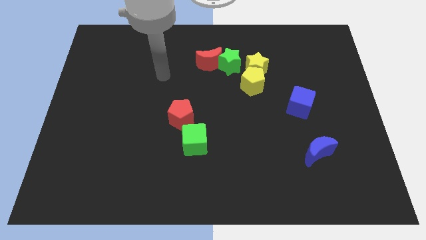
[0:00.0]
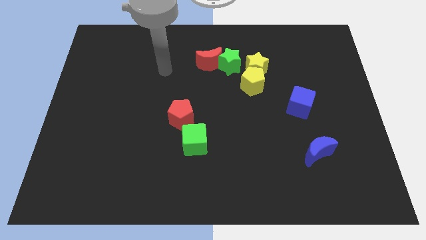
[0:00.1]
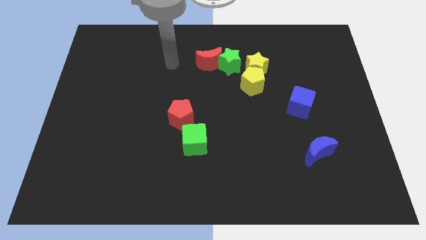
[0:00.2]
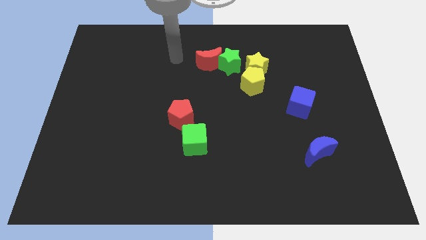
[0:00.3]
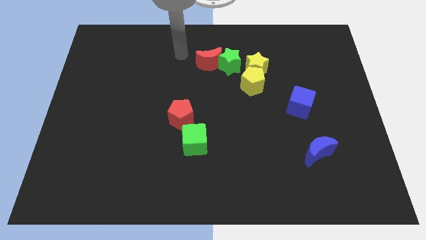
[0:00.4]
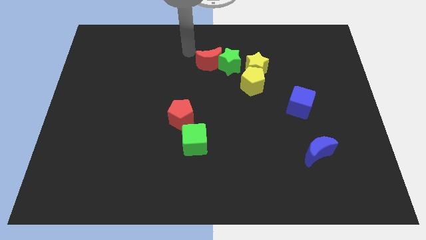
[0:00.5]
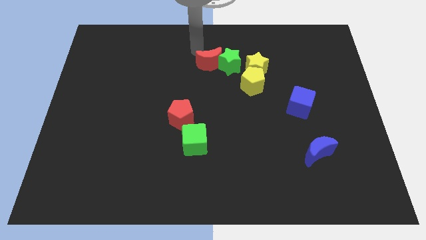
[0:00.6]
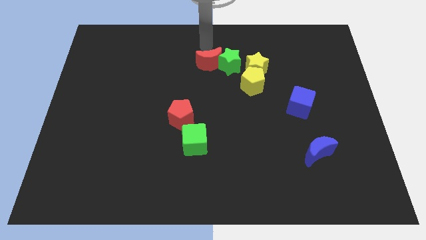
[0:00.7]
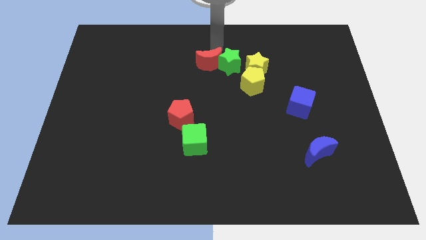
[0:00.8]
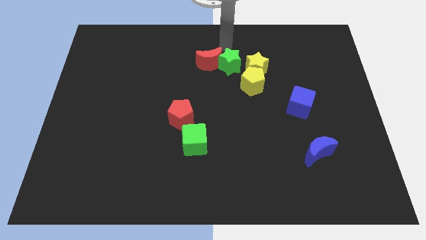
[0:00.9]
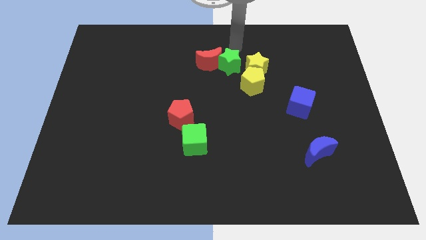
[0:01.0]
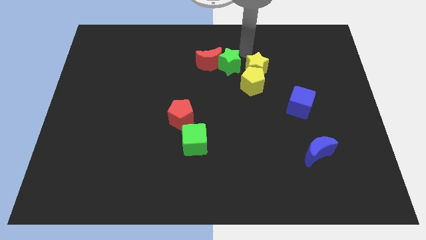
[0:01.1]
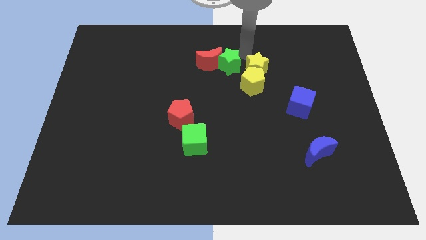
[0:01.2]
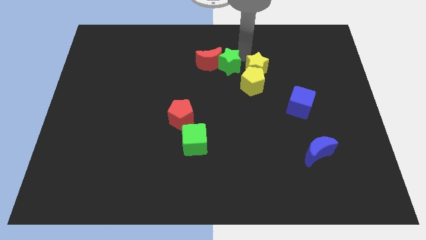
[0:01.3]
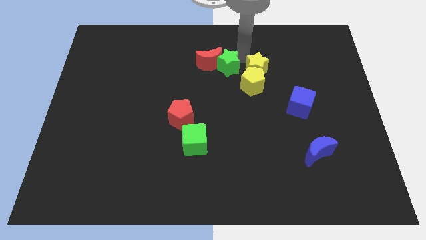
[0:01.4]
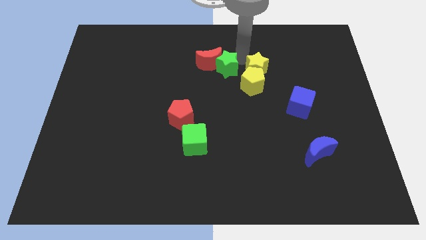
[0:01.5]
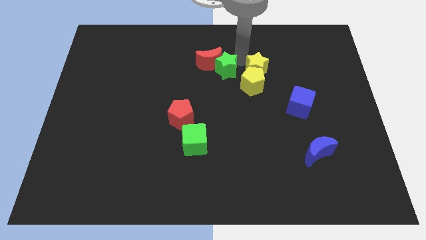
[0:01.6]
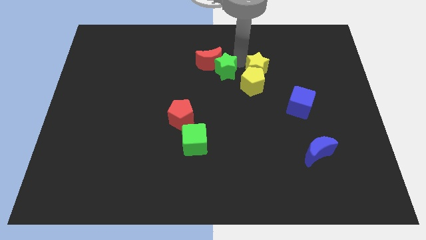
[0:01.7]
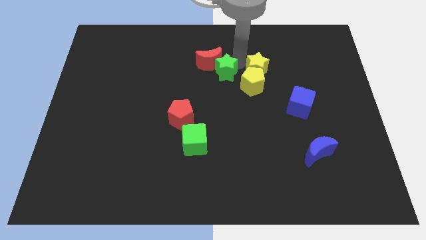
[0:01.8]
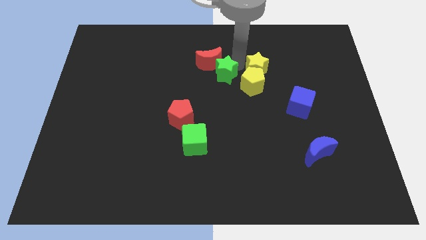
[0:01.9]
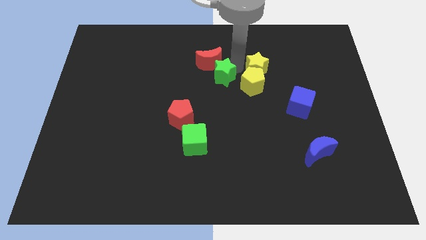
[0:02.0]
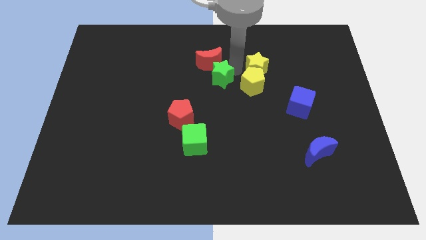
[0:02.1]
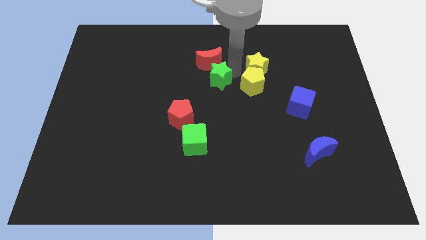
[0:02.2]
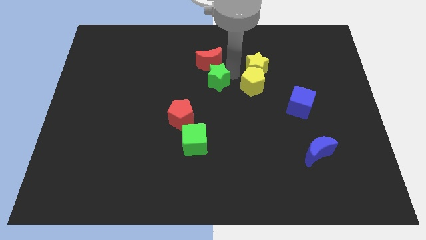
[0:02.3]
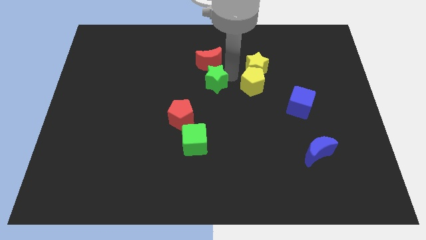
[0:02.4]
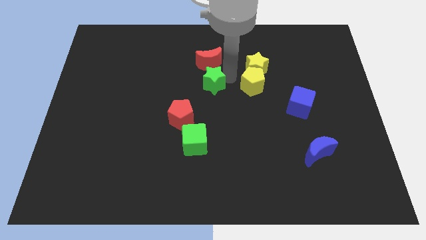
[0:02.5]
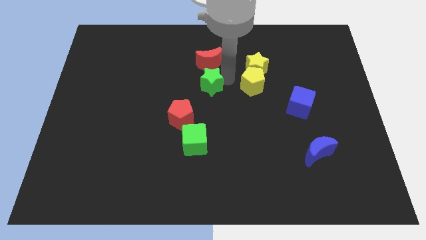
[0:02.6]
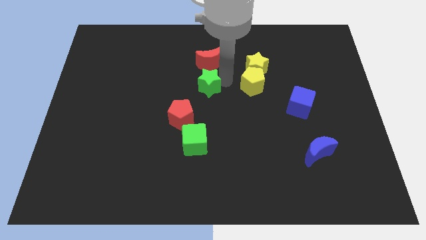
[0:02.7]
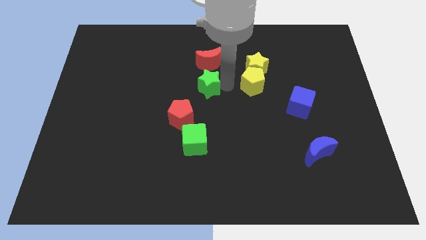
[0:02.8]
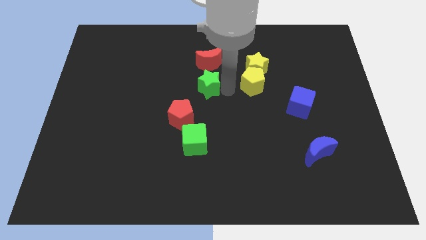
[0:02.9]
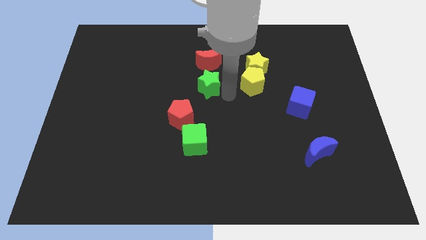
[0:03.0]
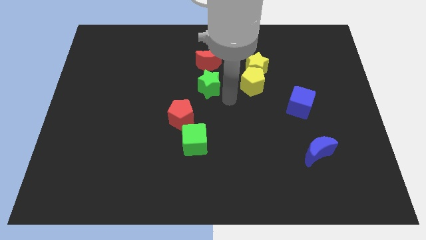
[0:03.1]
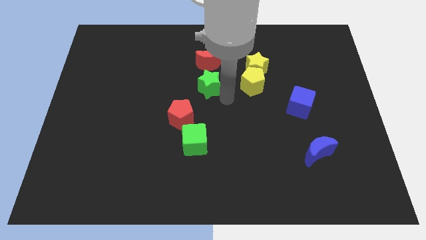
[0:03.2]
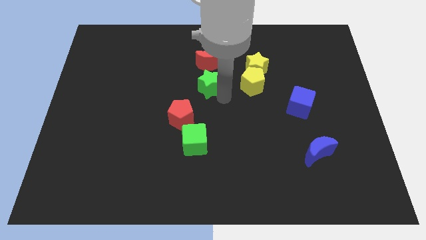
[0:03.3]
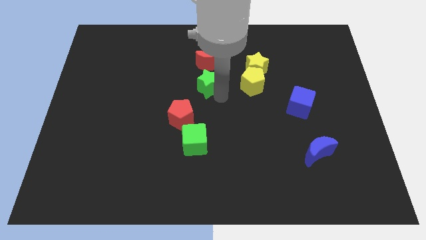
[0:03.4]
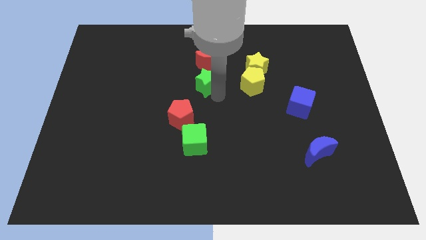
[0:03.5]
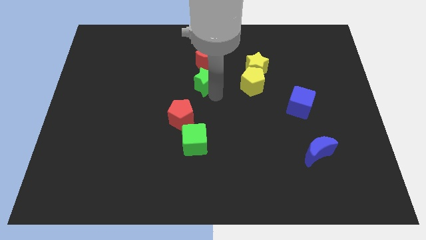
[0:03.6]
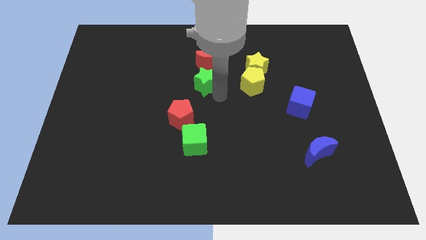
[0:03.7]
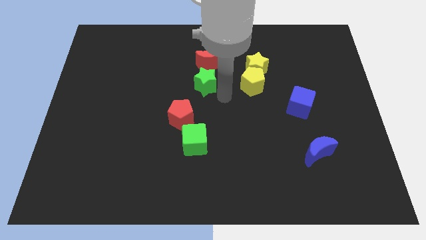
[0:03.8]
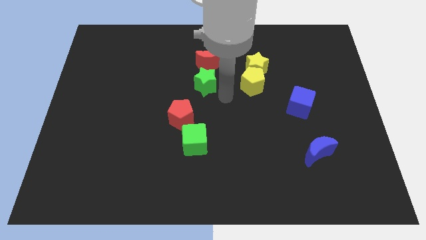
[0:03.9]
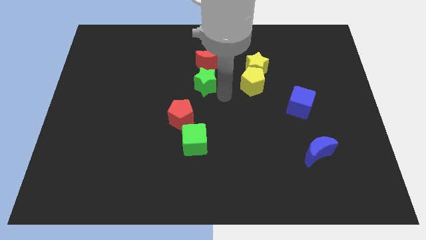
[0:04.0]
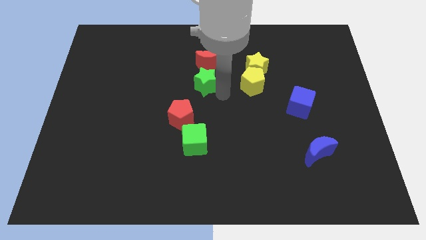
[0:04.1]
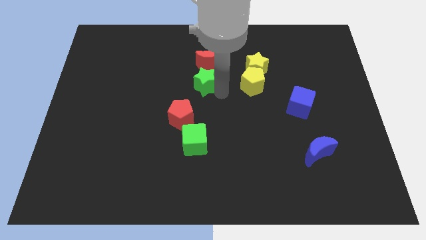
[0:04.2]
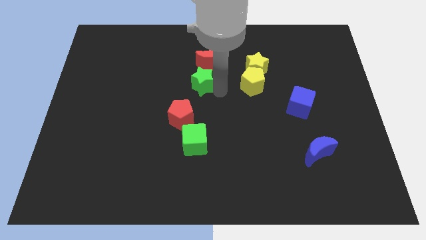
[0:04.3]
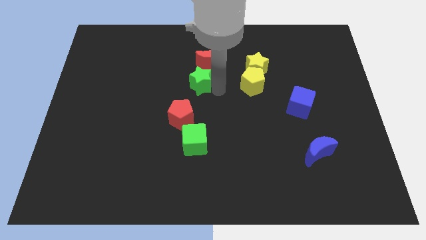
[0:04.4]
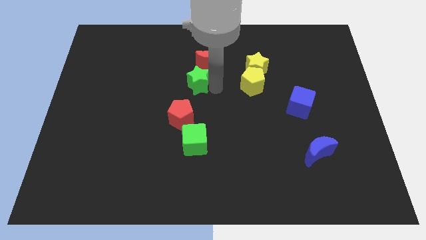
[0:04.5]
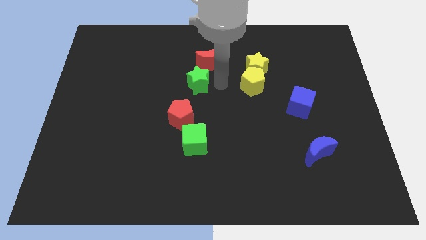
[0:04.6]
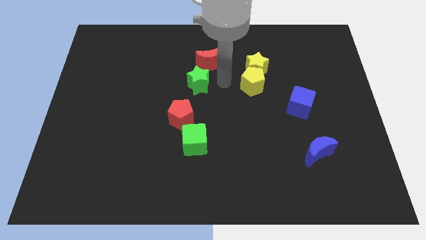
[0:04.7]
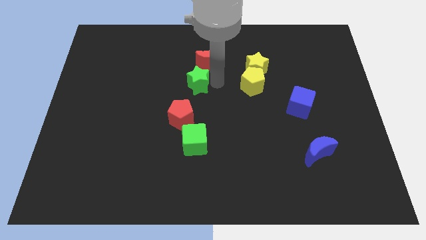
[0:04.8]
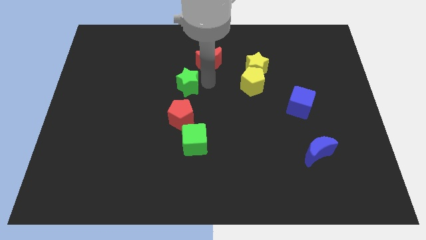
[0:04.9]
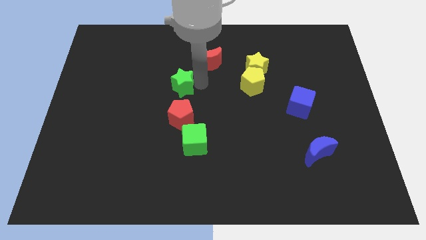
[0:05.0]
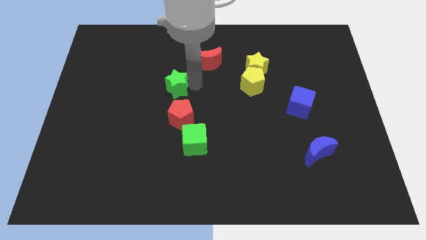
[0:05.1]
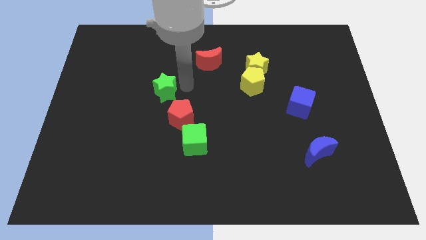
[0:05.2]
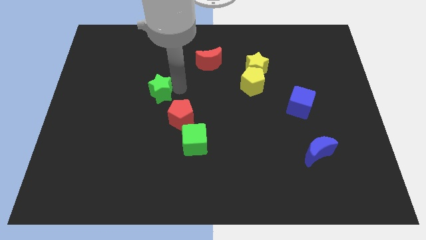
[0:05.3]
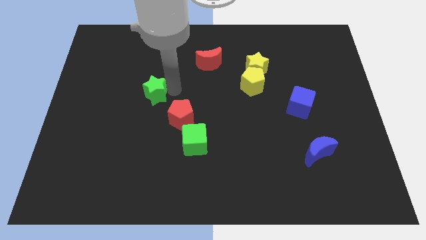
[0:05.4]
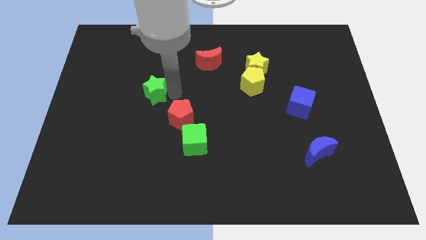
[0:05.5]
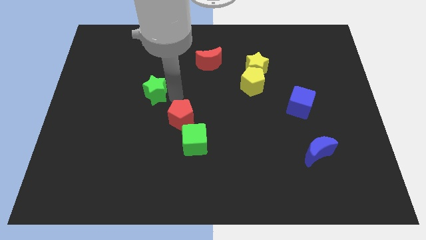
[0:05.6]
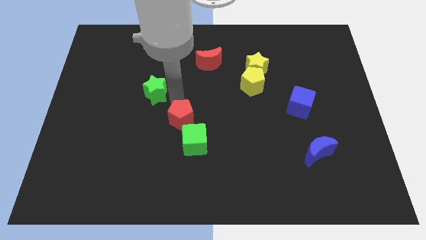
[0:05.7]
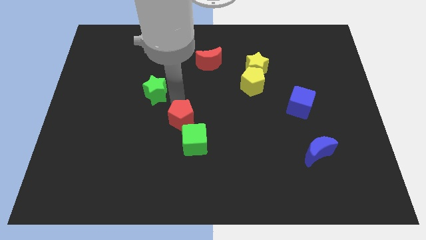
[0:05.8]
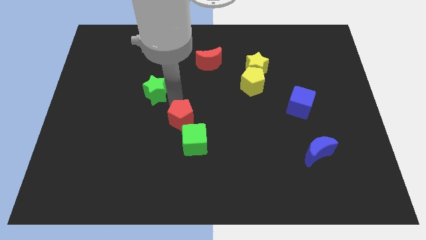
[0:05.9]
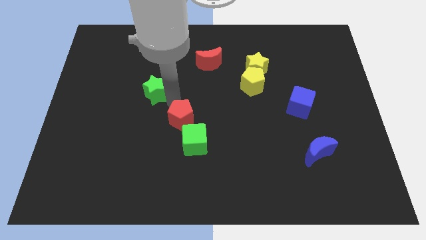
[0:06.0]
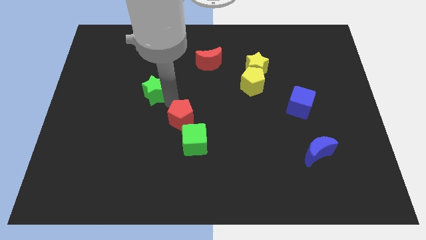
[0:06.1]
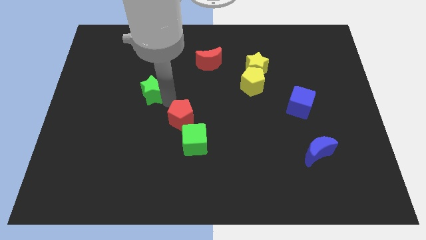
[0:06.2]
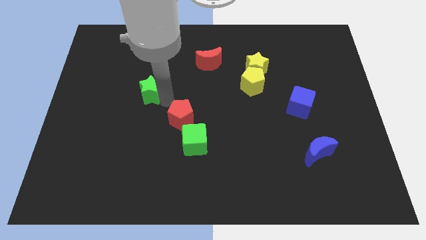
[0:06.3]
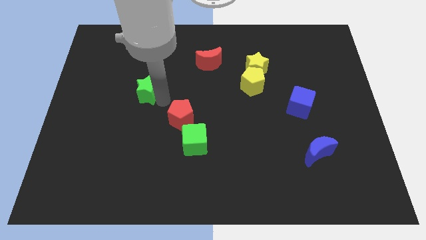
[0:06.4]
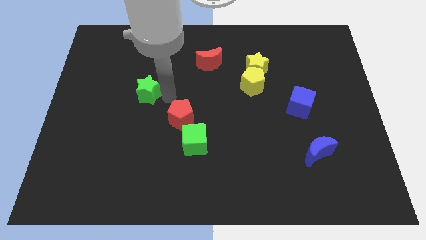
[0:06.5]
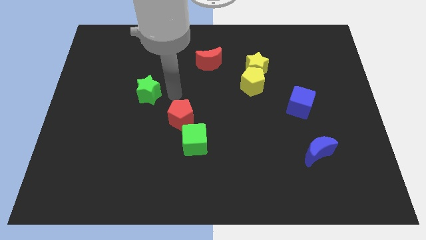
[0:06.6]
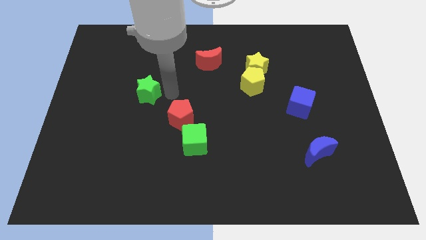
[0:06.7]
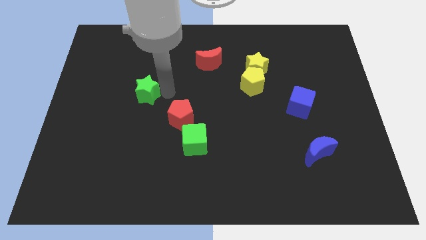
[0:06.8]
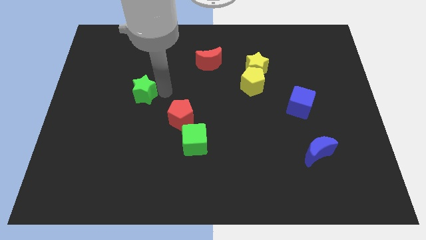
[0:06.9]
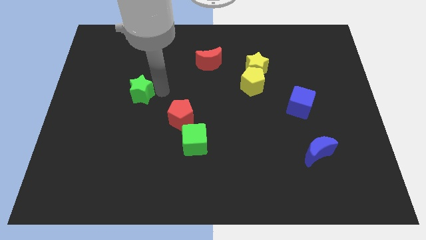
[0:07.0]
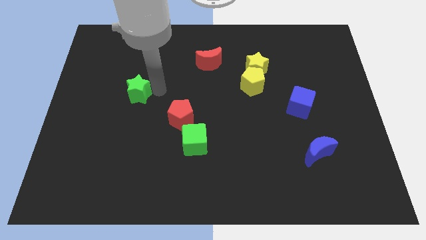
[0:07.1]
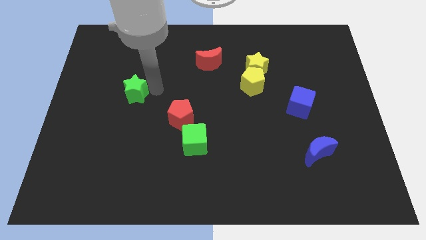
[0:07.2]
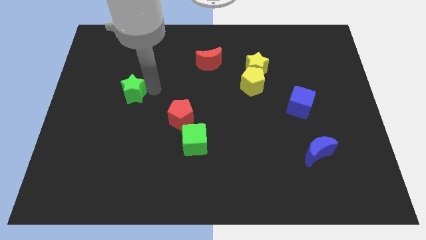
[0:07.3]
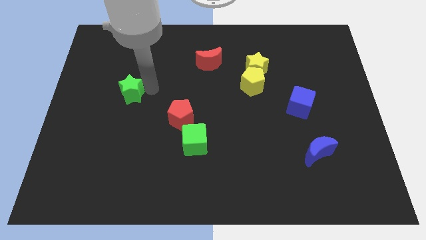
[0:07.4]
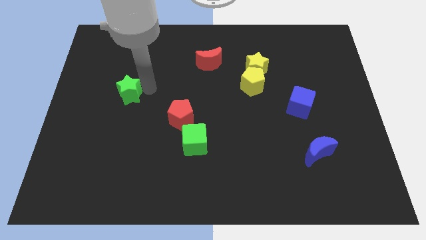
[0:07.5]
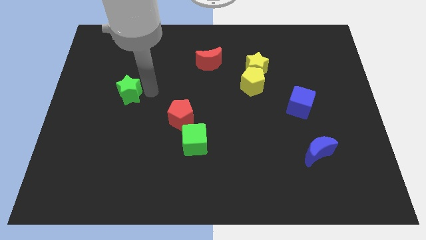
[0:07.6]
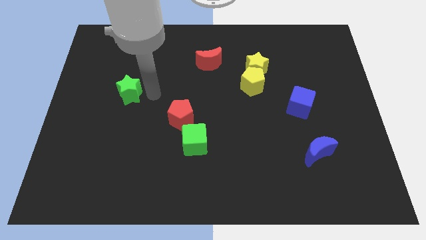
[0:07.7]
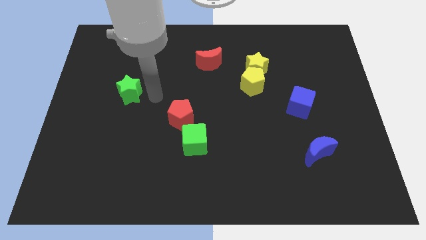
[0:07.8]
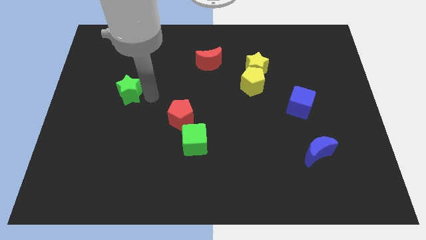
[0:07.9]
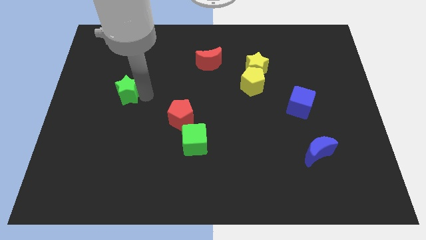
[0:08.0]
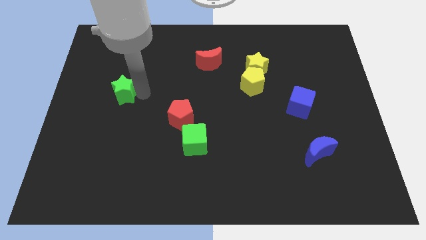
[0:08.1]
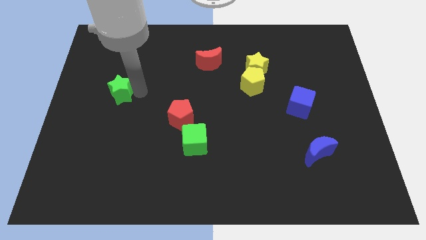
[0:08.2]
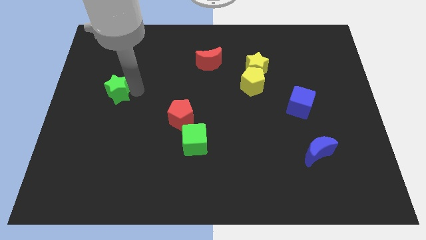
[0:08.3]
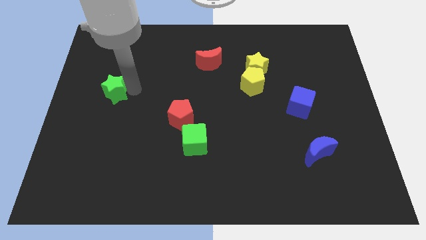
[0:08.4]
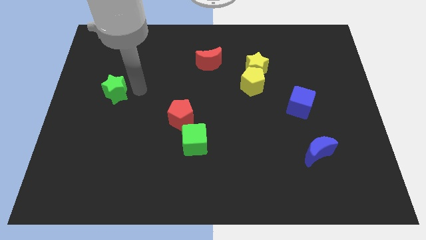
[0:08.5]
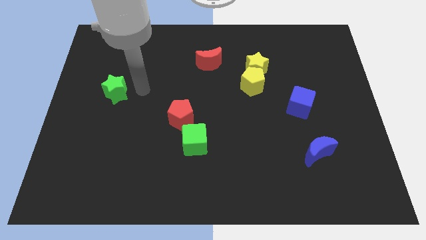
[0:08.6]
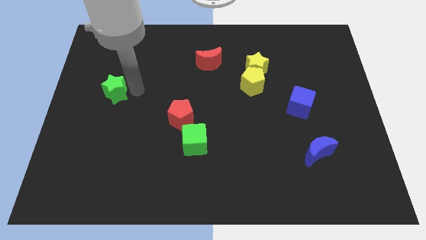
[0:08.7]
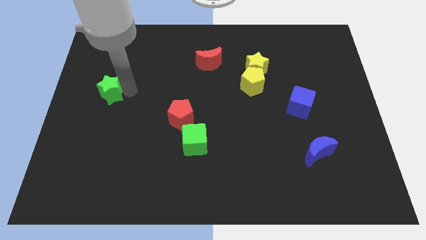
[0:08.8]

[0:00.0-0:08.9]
push the green star to the left side of the board
